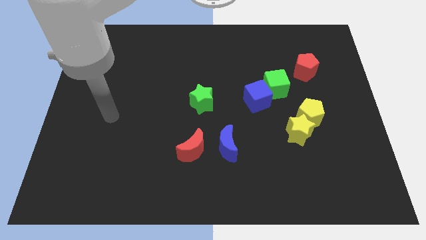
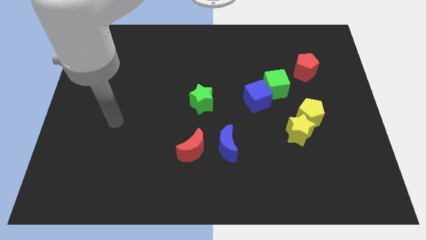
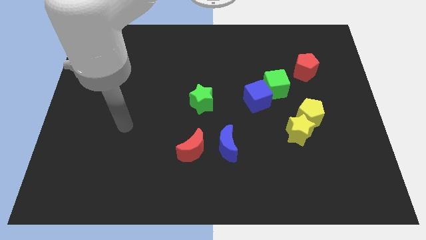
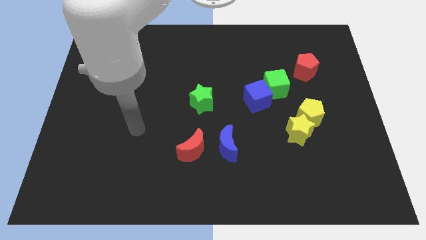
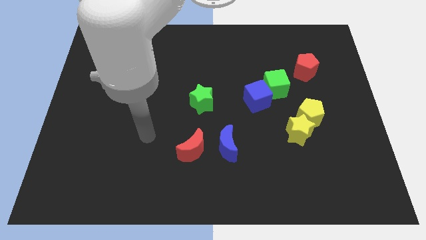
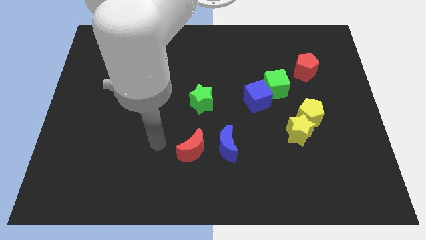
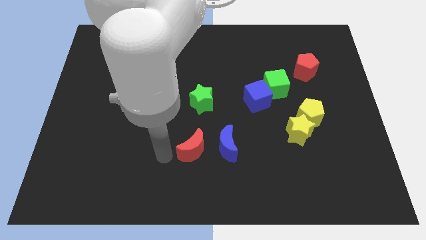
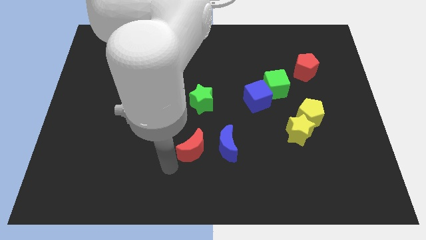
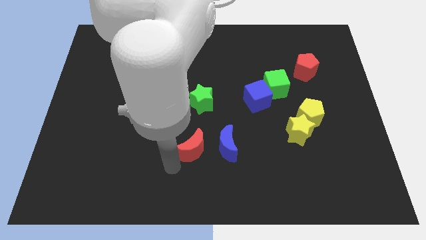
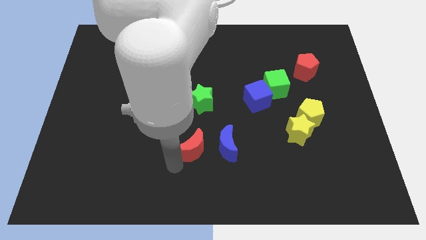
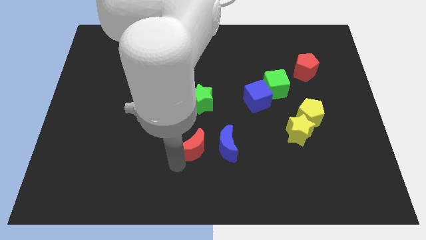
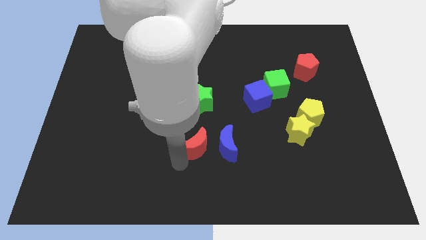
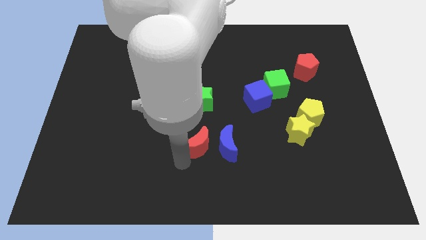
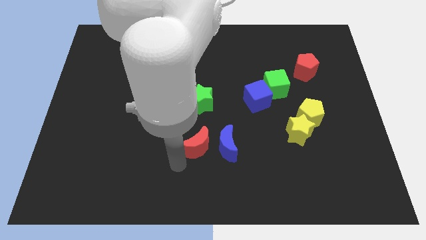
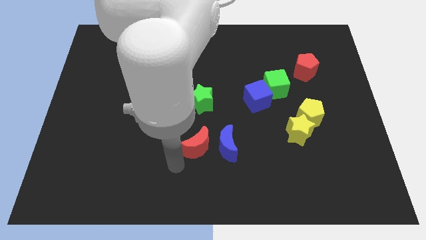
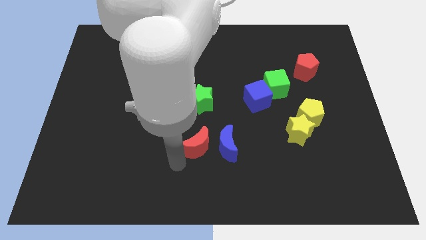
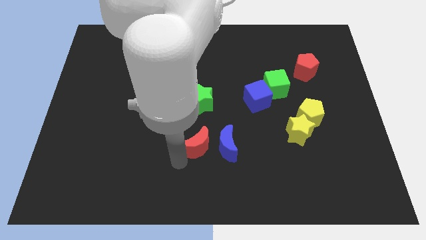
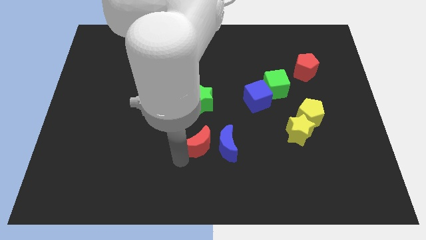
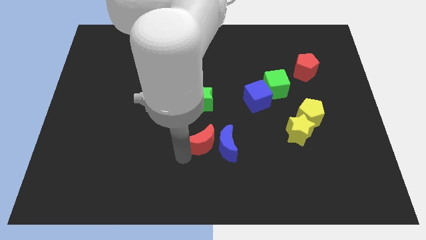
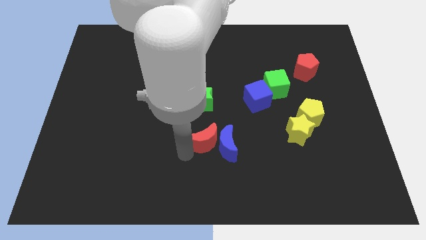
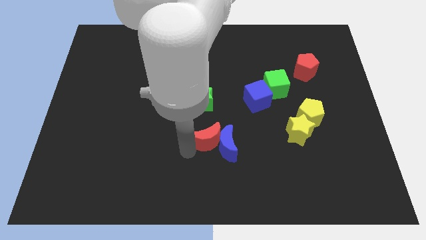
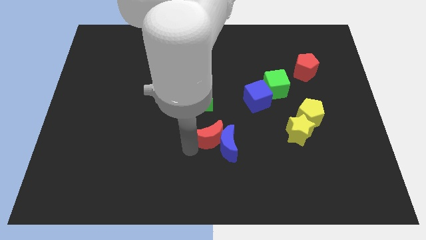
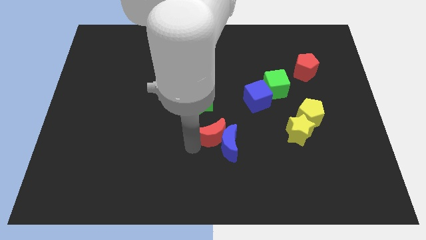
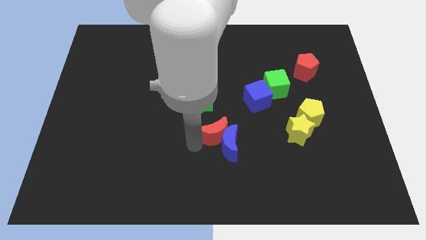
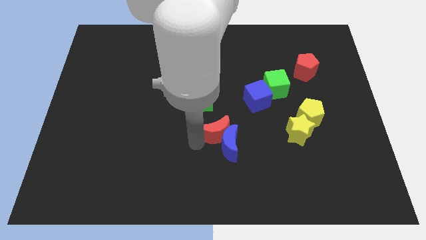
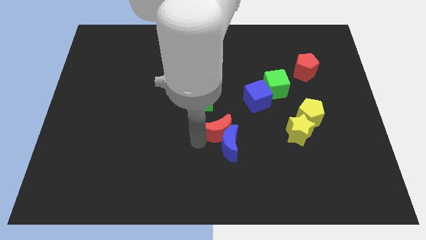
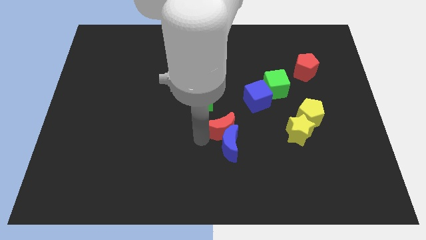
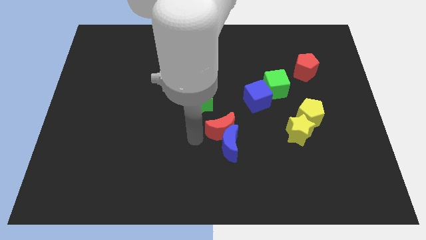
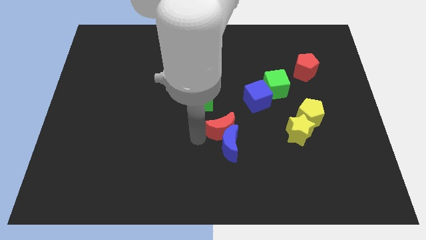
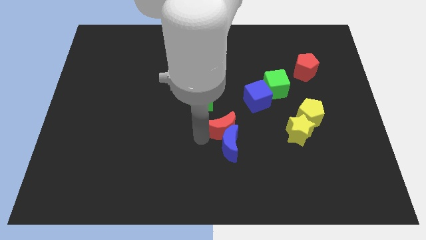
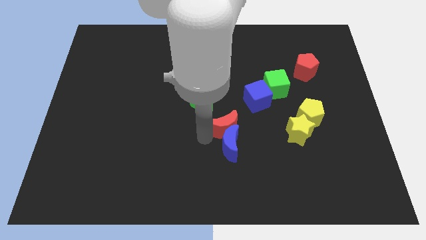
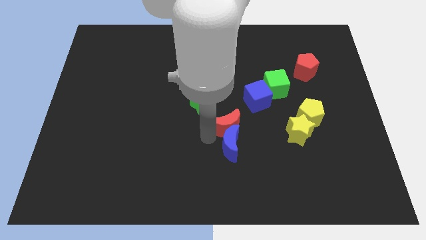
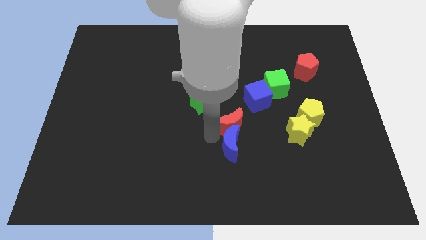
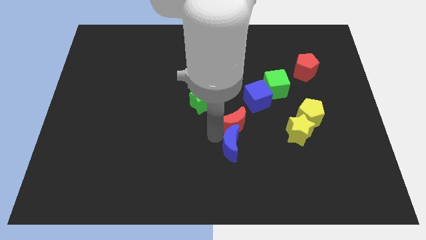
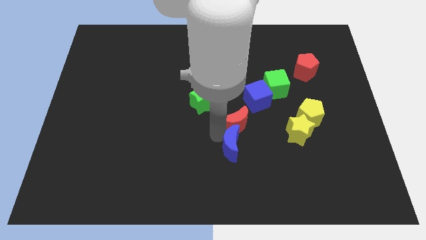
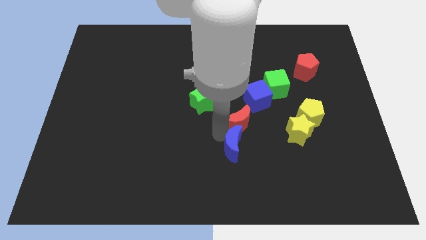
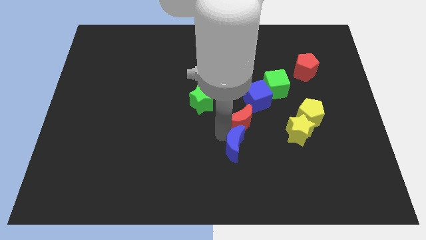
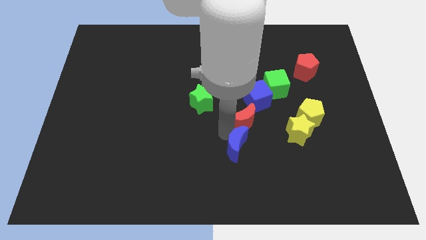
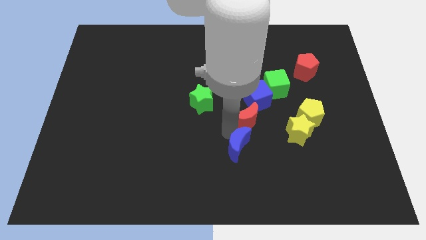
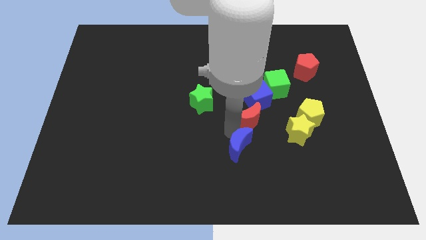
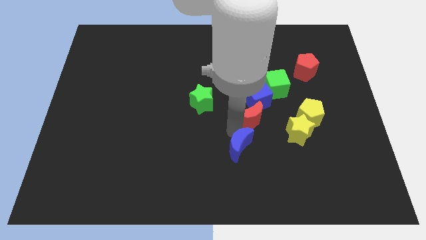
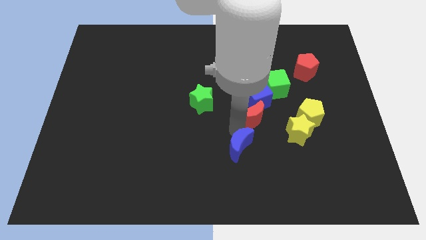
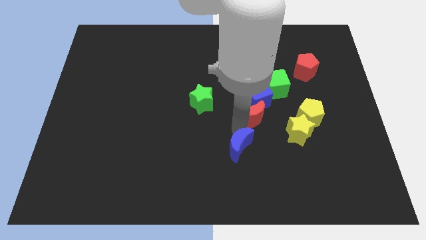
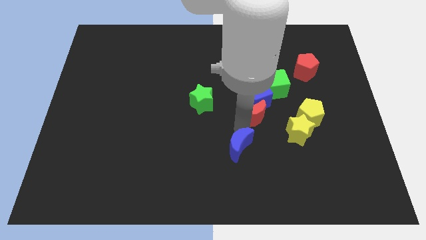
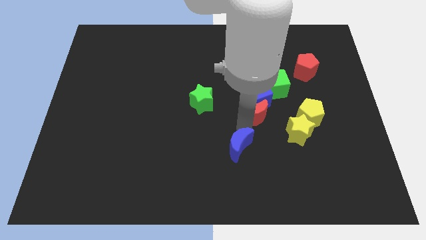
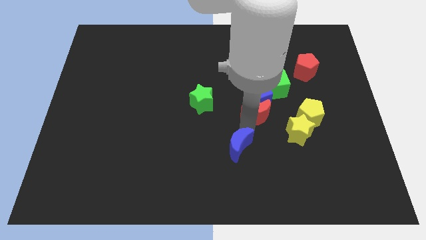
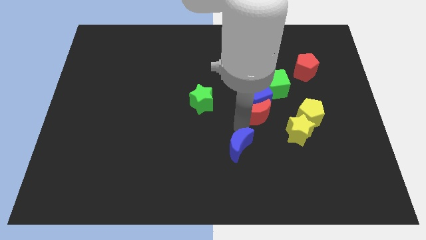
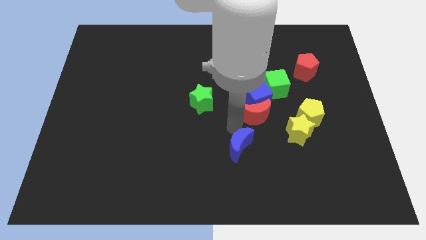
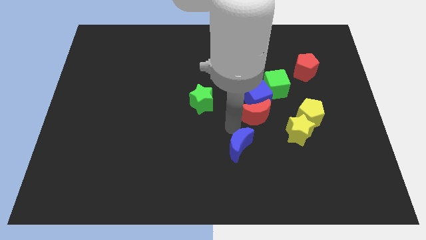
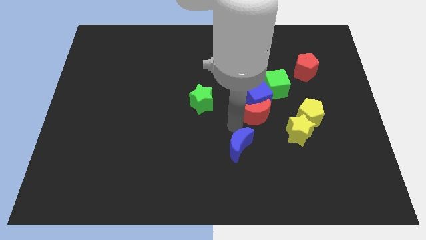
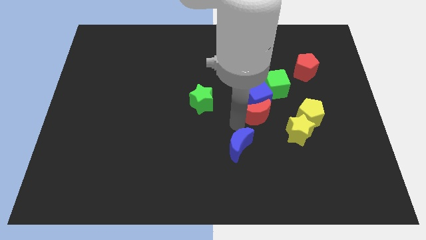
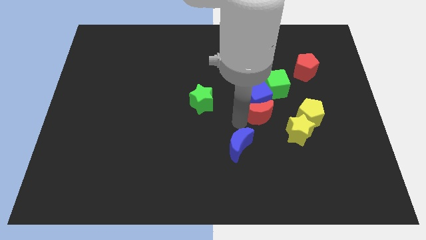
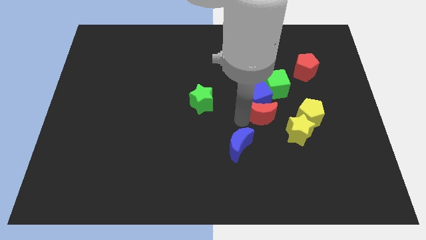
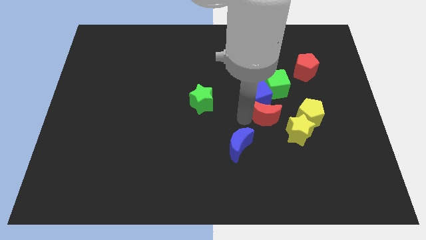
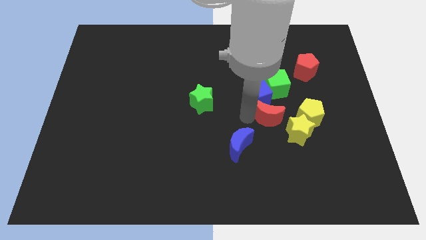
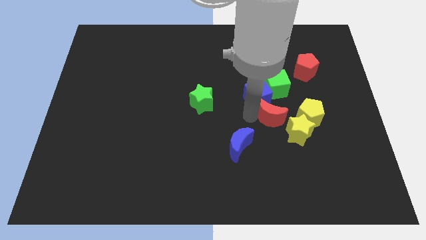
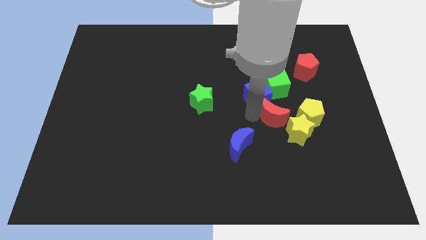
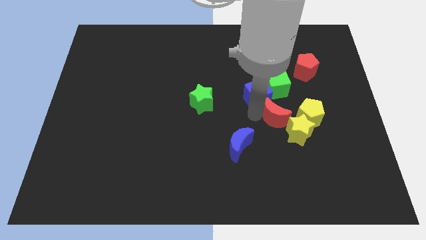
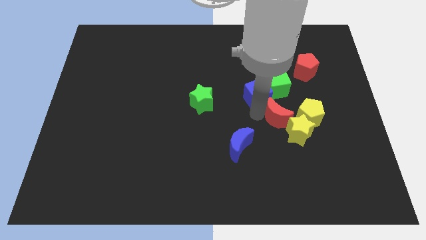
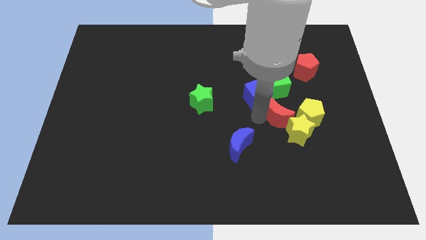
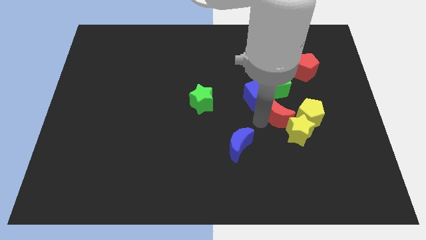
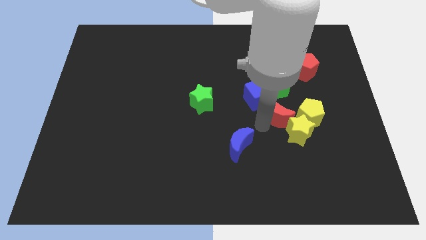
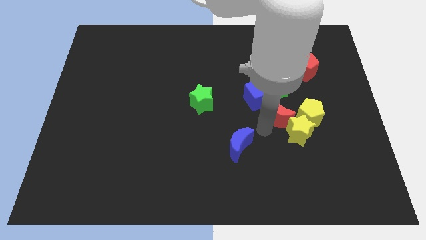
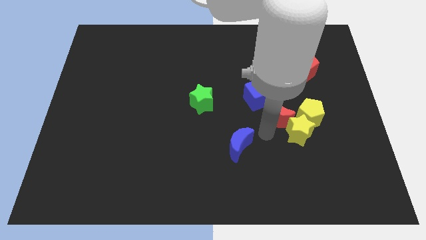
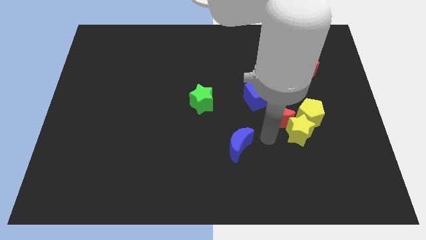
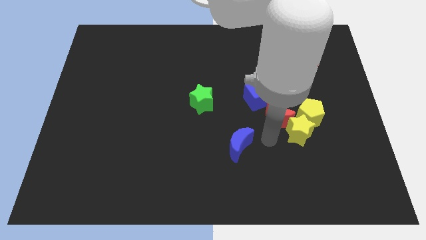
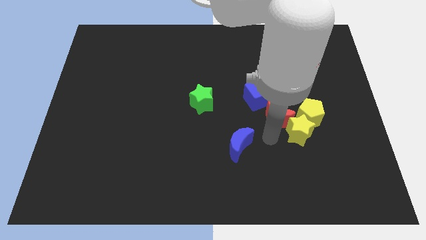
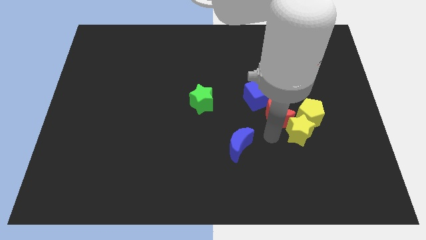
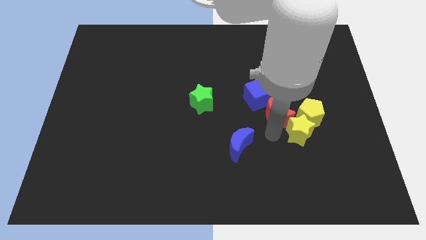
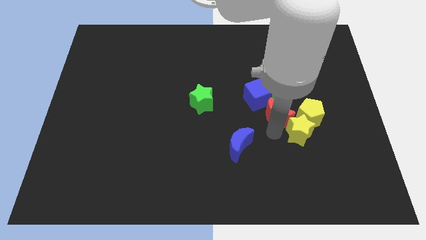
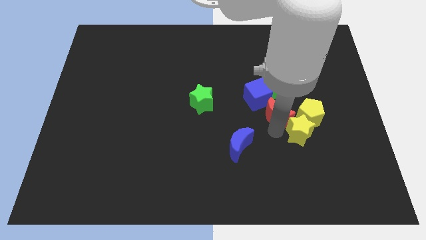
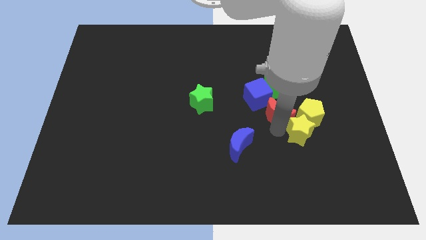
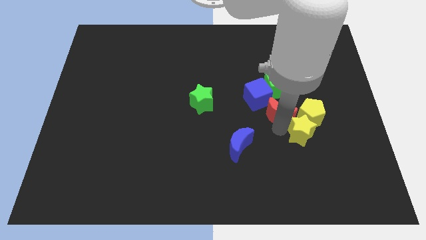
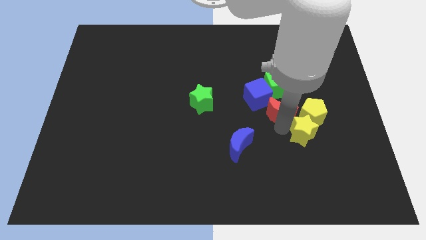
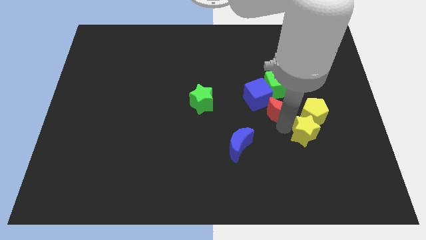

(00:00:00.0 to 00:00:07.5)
push the red moon to the right of the blue cube
